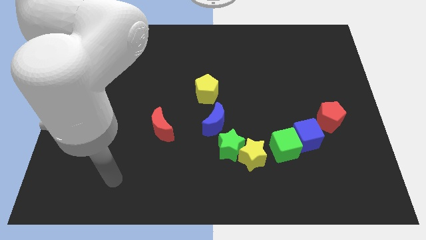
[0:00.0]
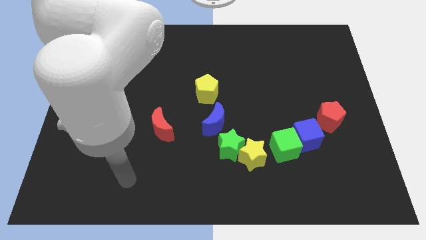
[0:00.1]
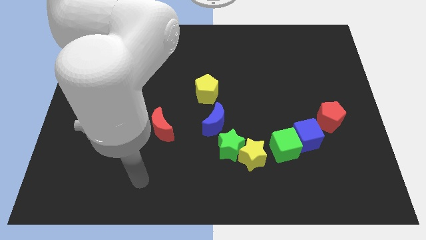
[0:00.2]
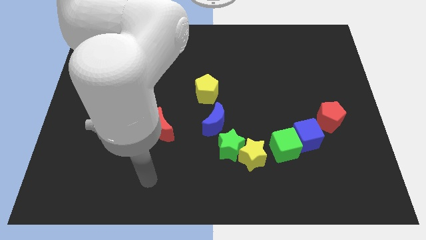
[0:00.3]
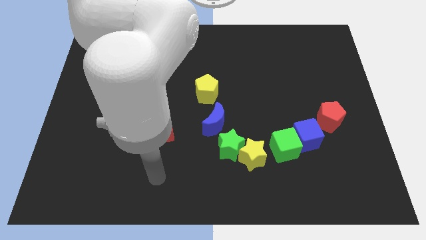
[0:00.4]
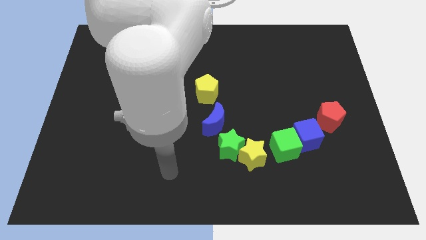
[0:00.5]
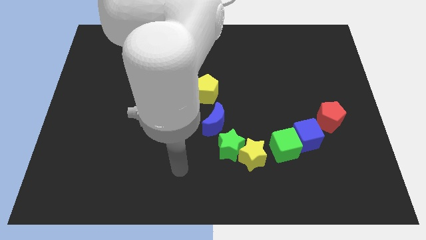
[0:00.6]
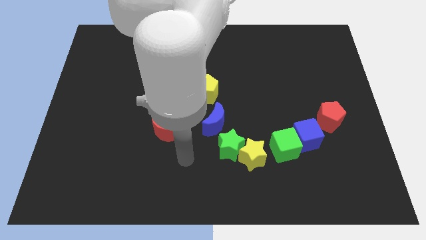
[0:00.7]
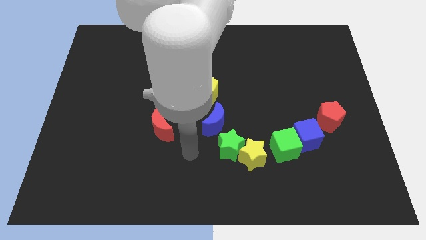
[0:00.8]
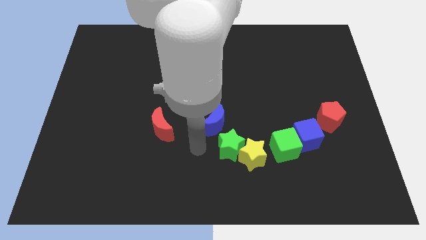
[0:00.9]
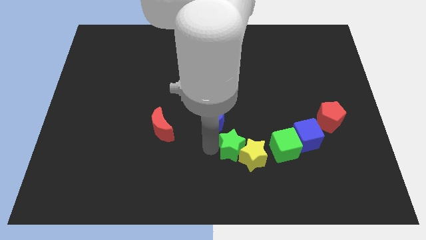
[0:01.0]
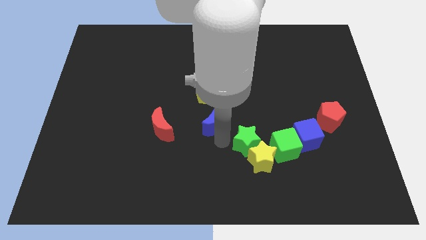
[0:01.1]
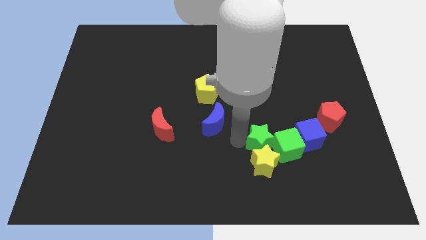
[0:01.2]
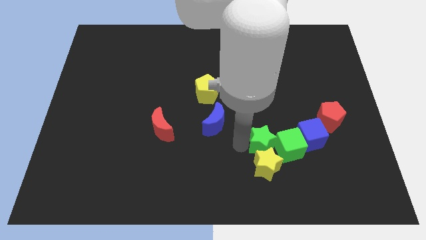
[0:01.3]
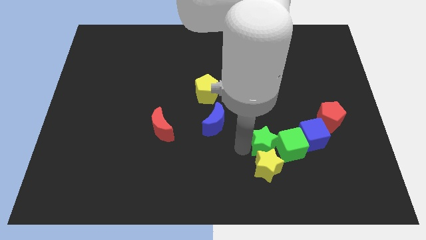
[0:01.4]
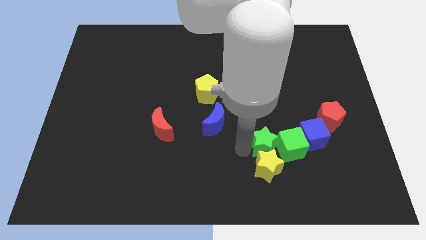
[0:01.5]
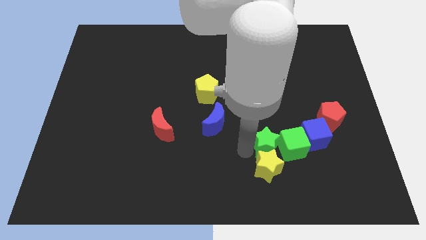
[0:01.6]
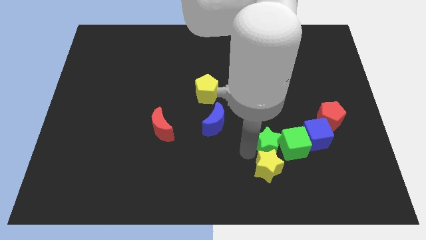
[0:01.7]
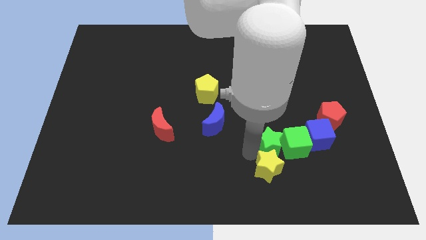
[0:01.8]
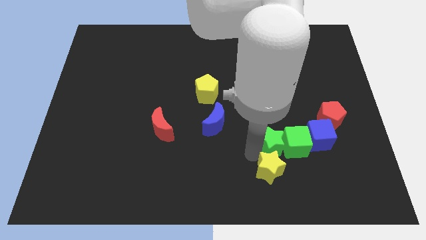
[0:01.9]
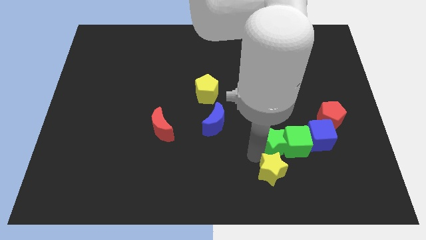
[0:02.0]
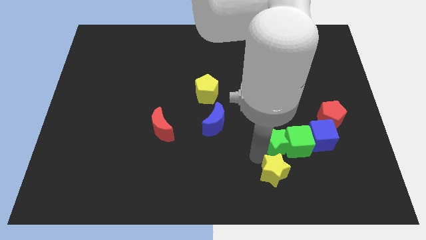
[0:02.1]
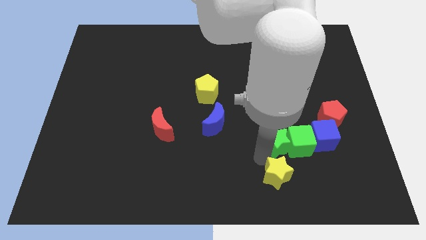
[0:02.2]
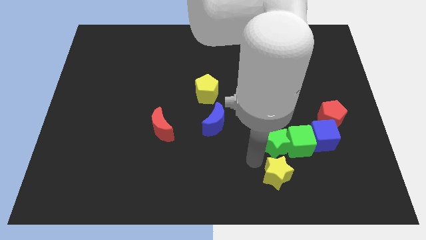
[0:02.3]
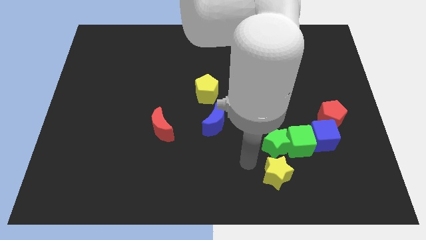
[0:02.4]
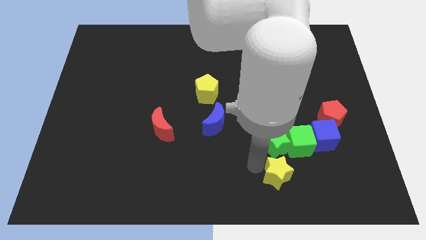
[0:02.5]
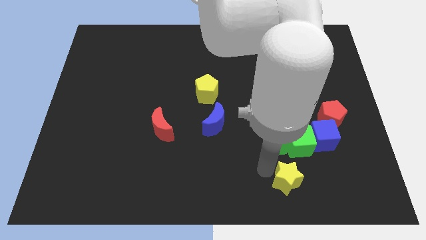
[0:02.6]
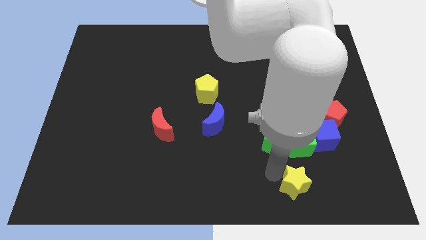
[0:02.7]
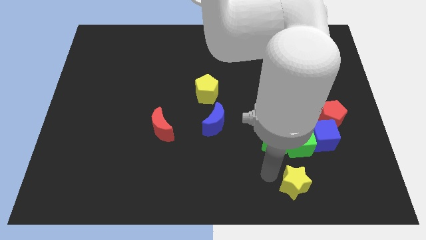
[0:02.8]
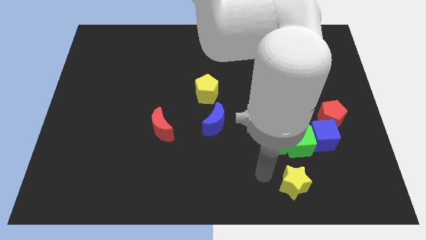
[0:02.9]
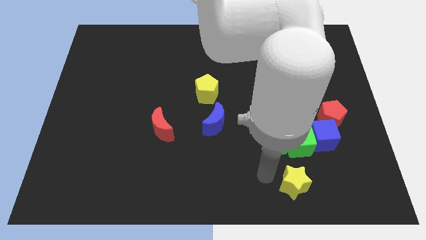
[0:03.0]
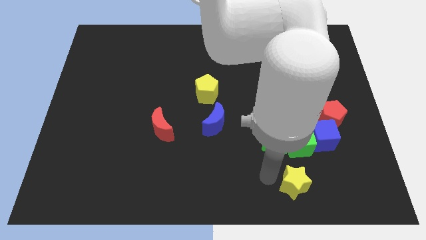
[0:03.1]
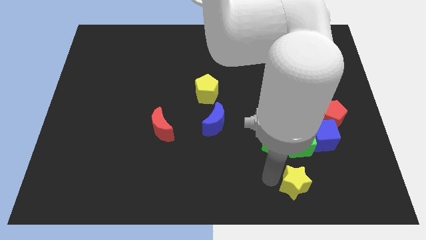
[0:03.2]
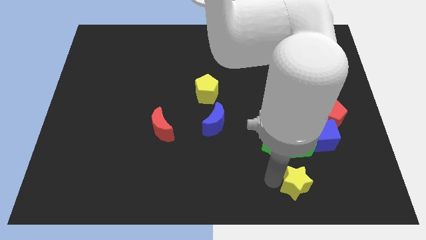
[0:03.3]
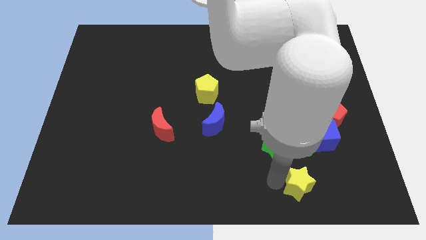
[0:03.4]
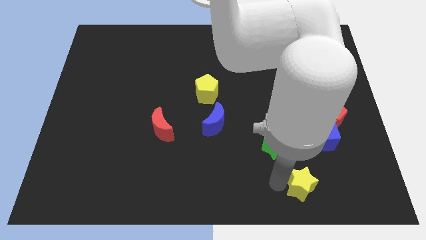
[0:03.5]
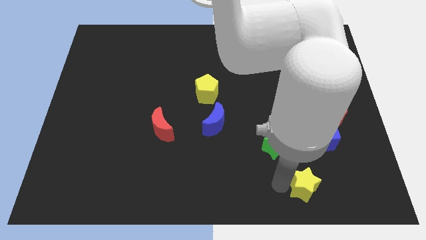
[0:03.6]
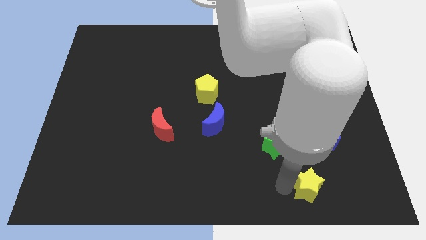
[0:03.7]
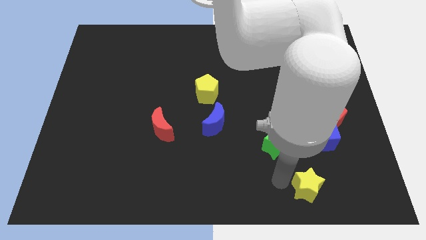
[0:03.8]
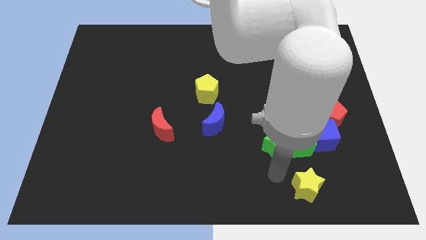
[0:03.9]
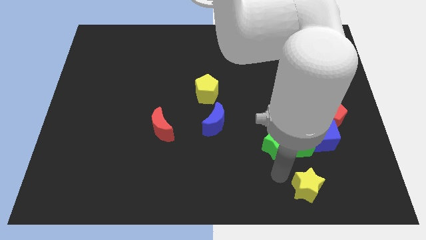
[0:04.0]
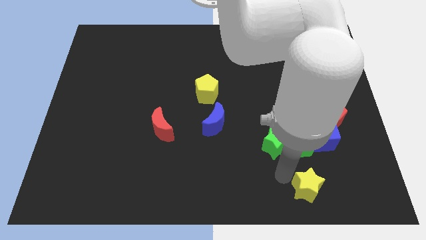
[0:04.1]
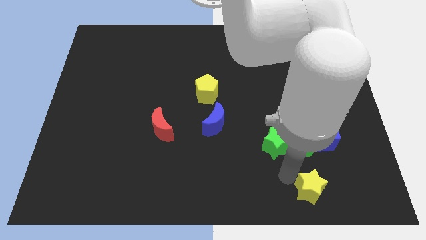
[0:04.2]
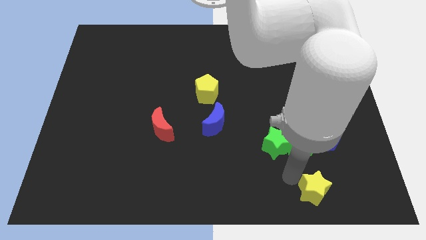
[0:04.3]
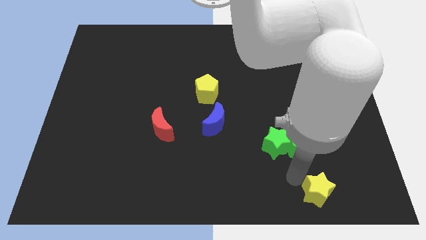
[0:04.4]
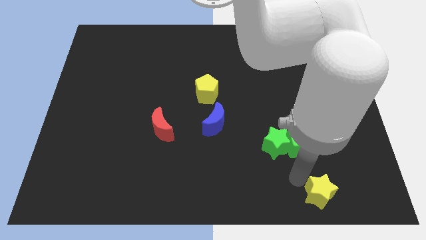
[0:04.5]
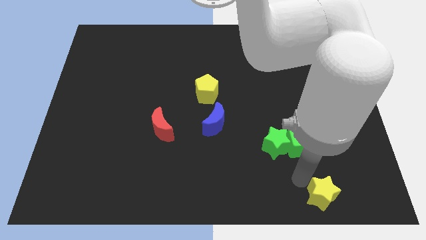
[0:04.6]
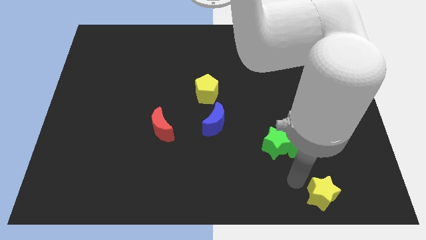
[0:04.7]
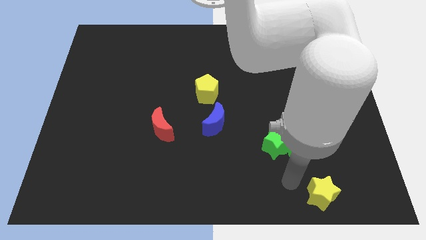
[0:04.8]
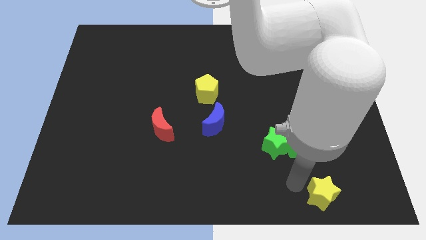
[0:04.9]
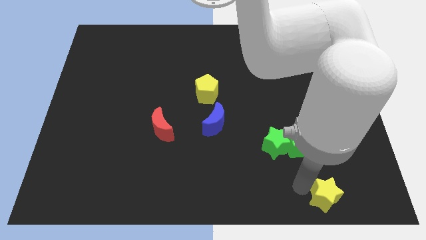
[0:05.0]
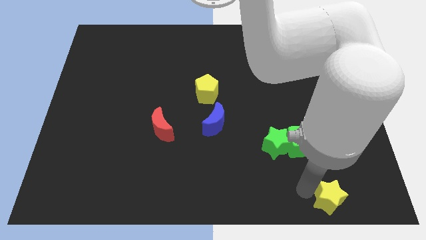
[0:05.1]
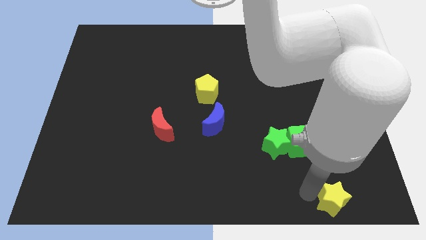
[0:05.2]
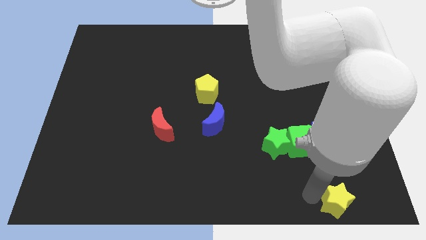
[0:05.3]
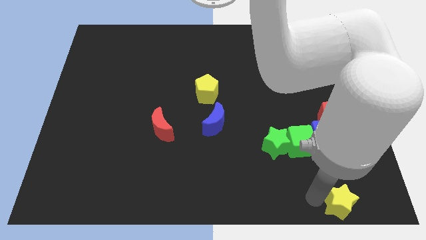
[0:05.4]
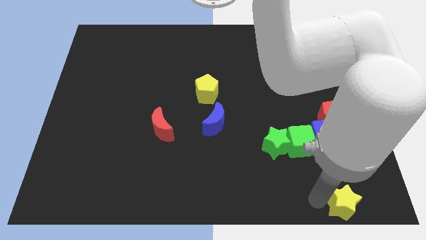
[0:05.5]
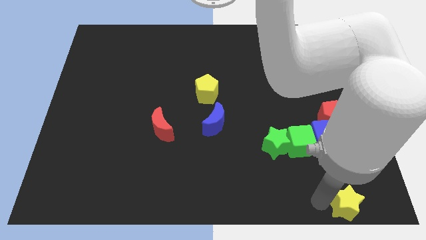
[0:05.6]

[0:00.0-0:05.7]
put the yellow star to the bottom right

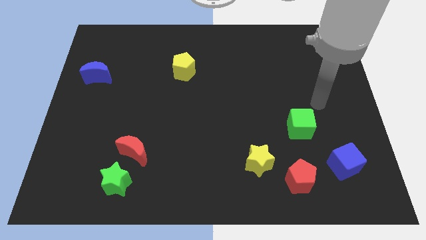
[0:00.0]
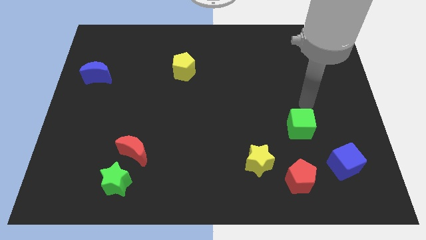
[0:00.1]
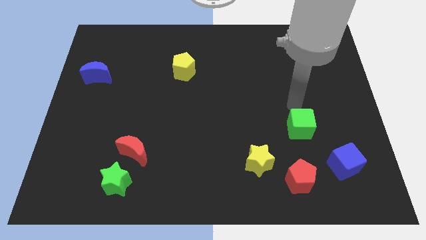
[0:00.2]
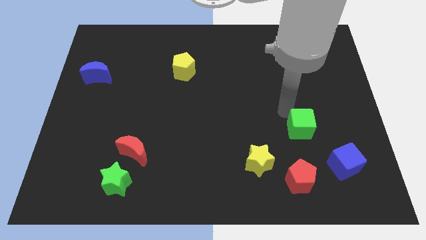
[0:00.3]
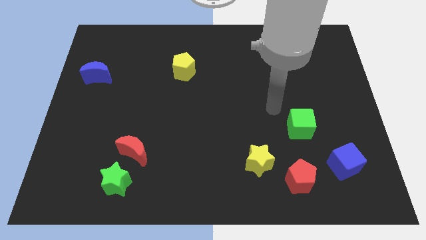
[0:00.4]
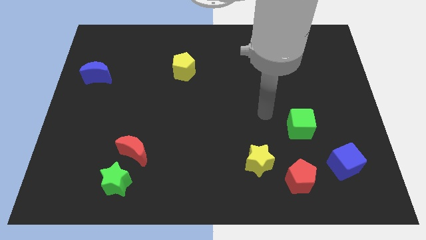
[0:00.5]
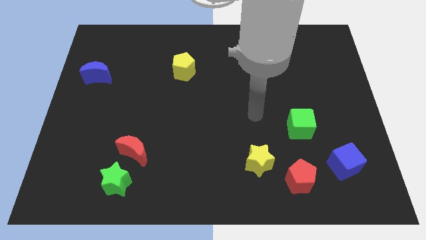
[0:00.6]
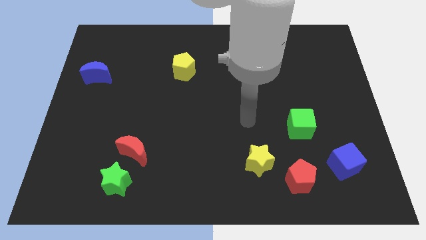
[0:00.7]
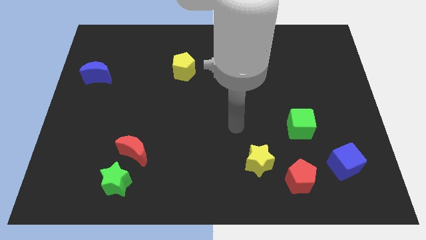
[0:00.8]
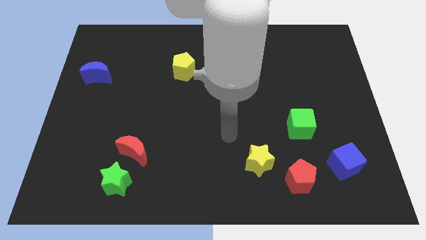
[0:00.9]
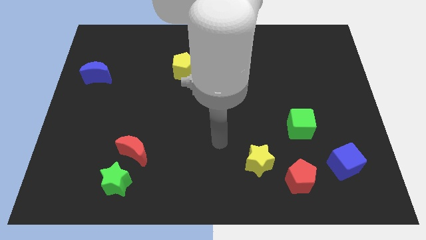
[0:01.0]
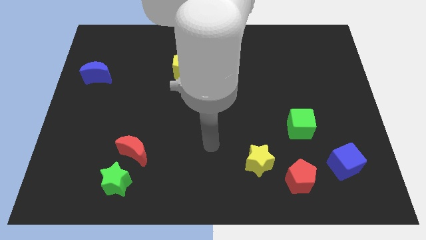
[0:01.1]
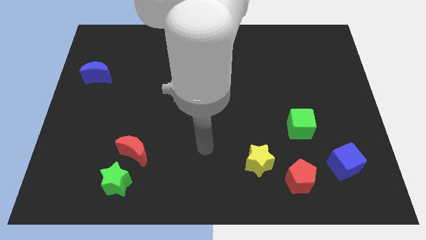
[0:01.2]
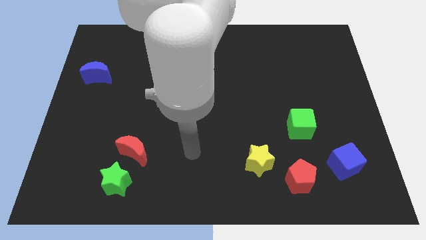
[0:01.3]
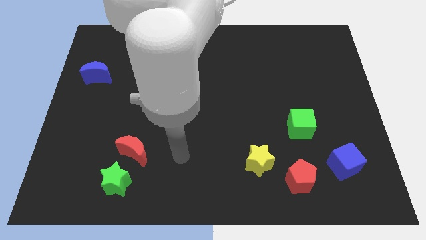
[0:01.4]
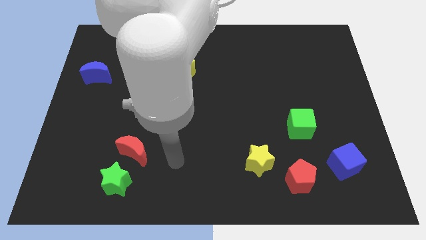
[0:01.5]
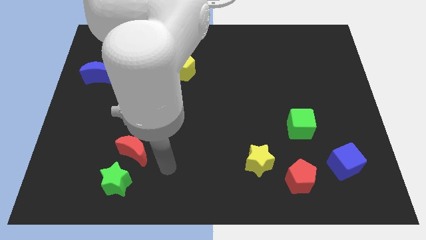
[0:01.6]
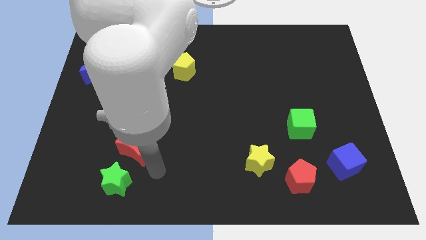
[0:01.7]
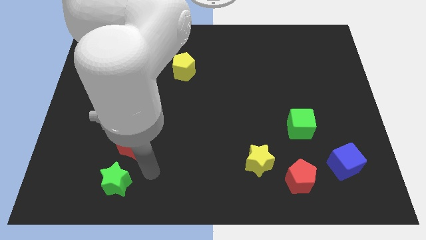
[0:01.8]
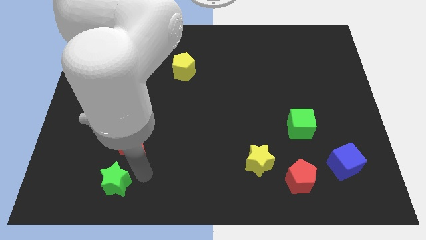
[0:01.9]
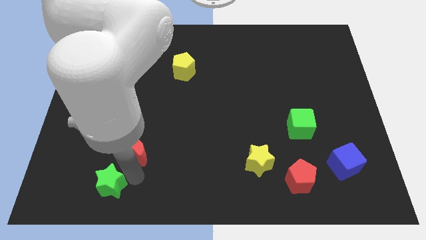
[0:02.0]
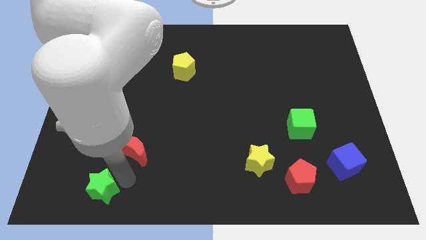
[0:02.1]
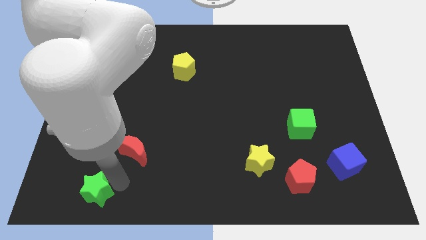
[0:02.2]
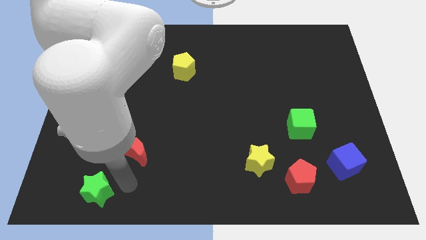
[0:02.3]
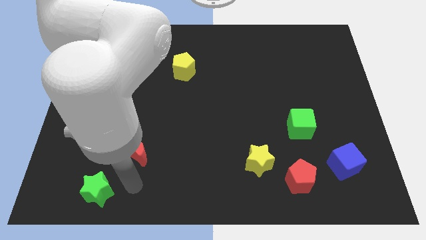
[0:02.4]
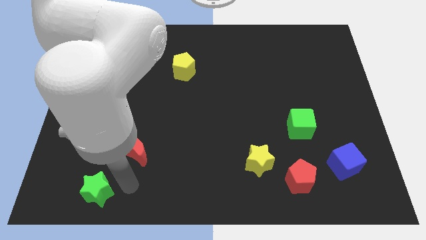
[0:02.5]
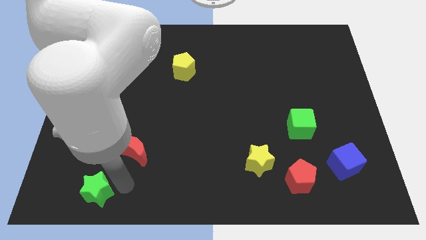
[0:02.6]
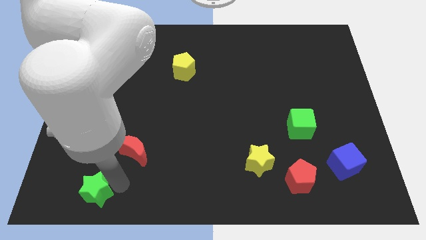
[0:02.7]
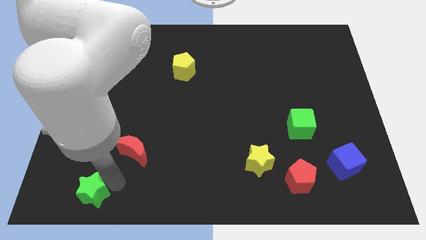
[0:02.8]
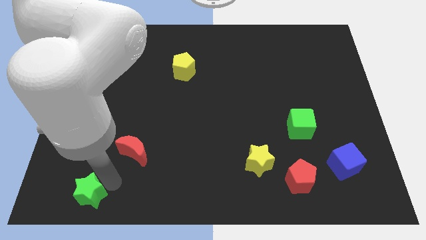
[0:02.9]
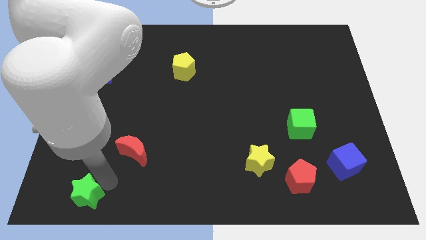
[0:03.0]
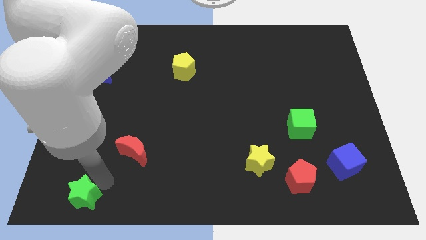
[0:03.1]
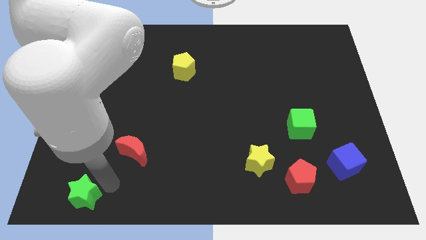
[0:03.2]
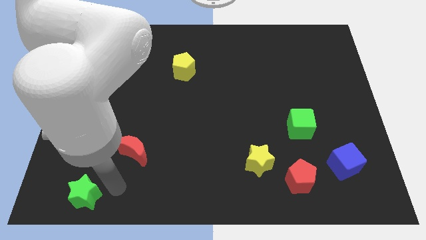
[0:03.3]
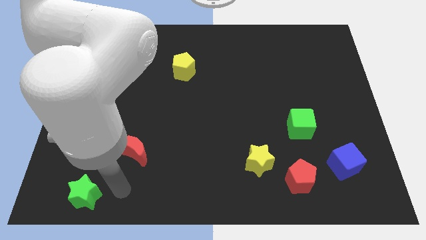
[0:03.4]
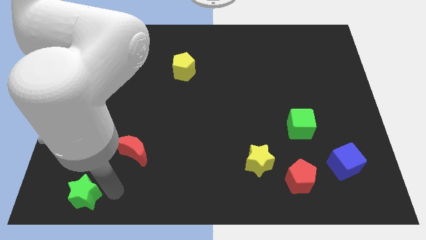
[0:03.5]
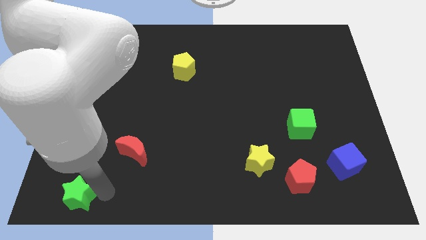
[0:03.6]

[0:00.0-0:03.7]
move the green star to the bottom left corner
